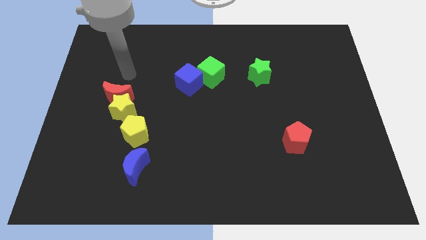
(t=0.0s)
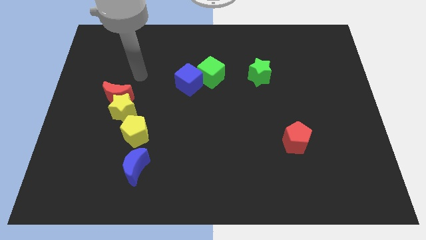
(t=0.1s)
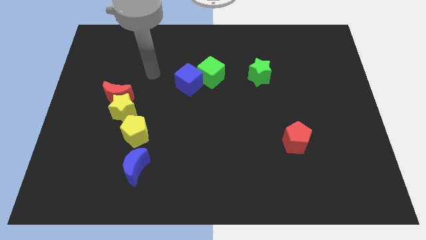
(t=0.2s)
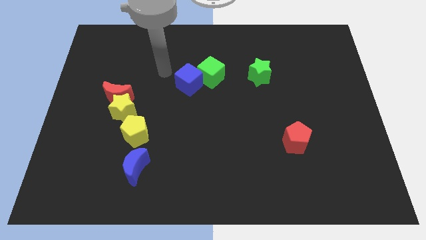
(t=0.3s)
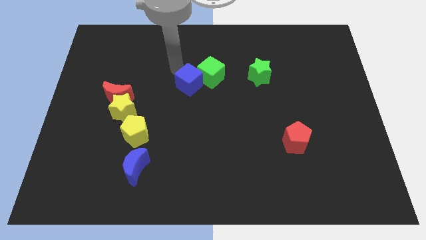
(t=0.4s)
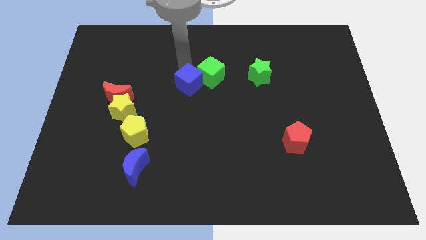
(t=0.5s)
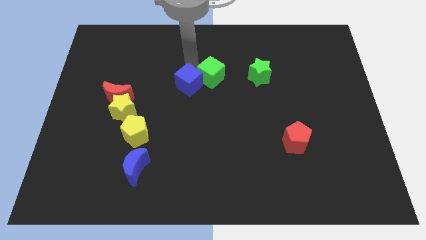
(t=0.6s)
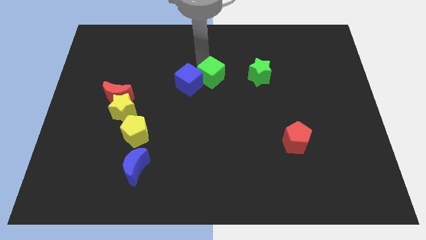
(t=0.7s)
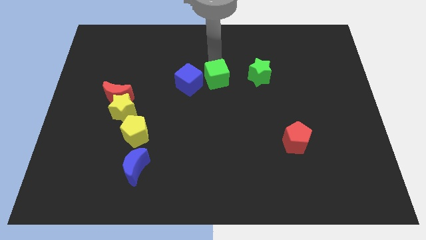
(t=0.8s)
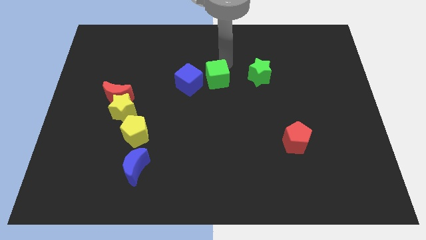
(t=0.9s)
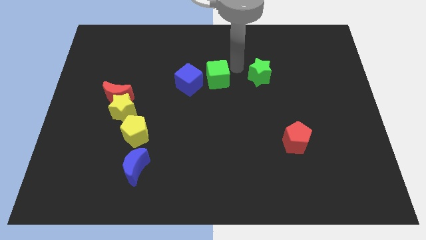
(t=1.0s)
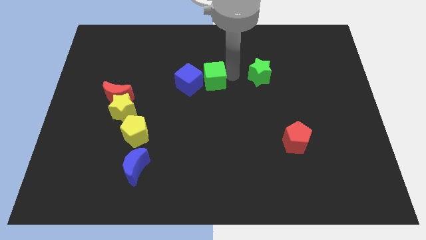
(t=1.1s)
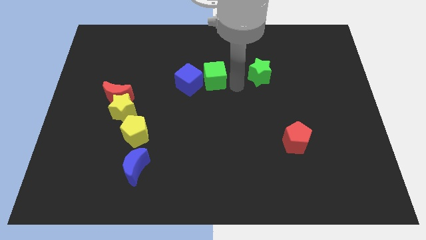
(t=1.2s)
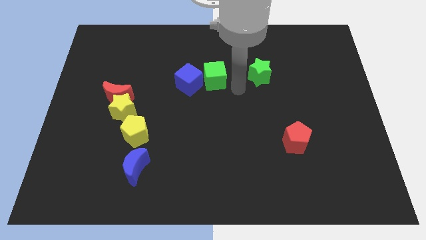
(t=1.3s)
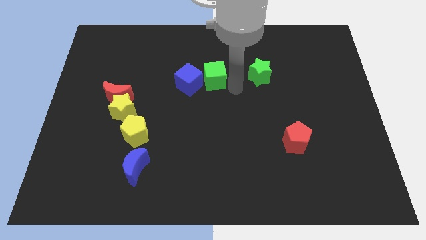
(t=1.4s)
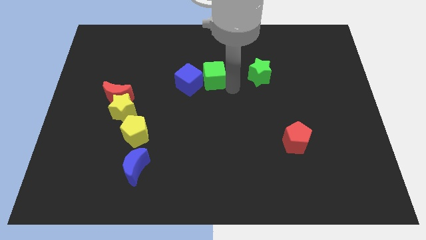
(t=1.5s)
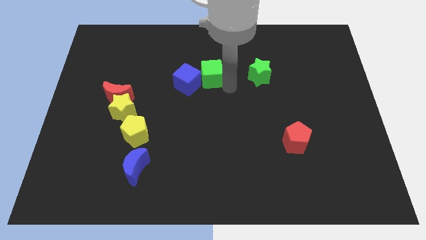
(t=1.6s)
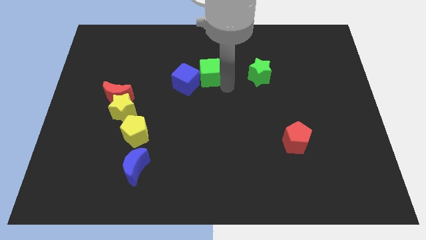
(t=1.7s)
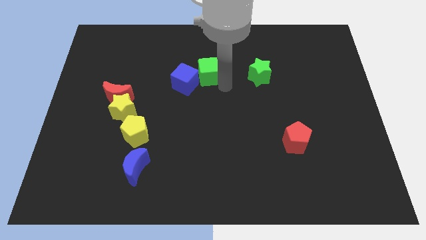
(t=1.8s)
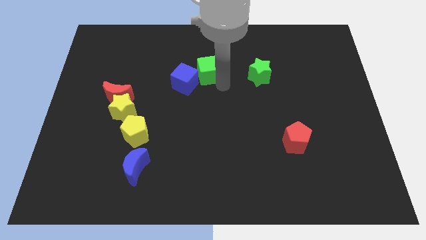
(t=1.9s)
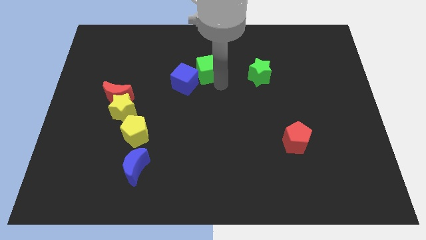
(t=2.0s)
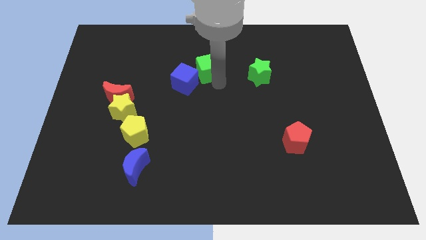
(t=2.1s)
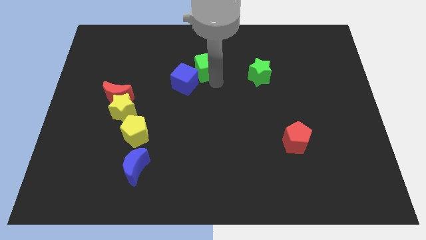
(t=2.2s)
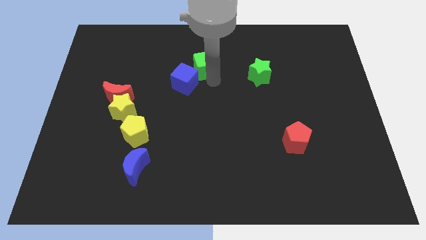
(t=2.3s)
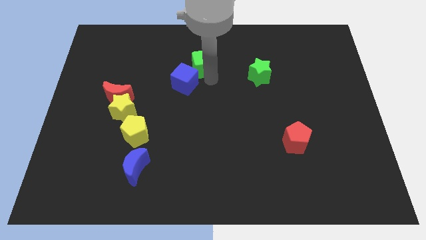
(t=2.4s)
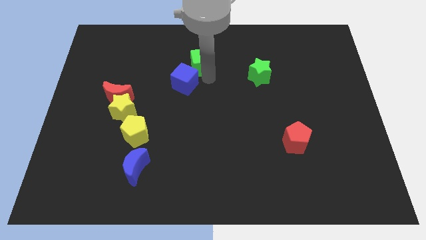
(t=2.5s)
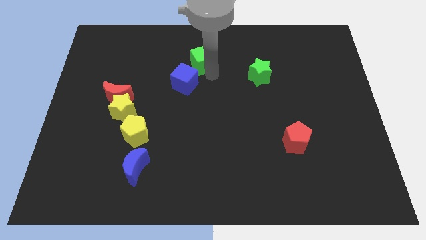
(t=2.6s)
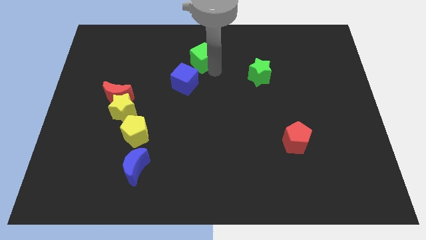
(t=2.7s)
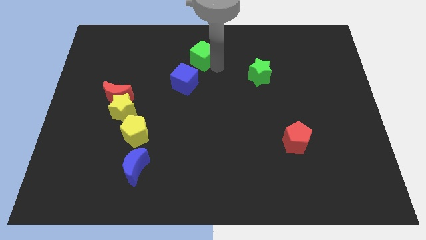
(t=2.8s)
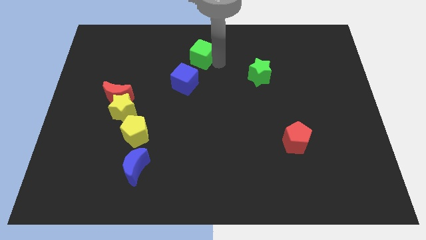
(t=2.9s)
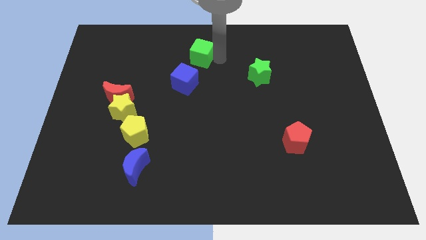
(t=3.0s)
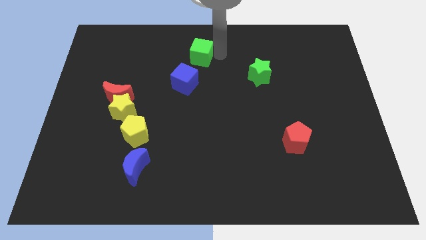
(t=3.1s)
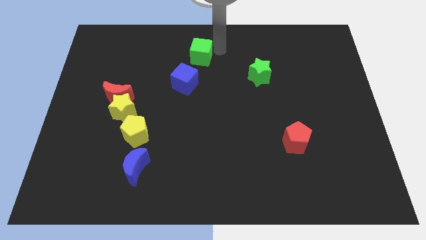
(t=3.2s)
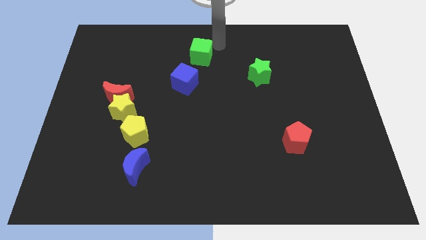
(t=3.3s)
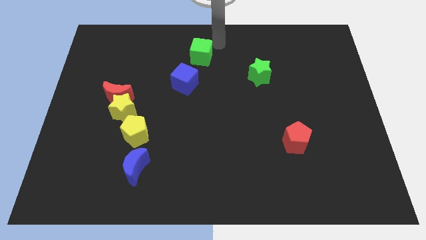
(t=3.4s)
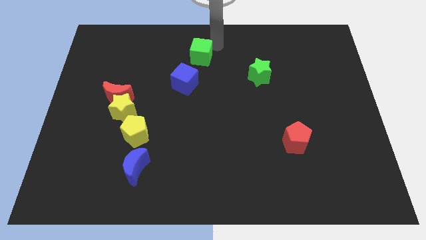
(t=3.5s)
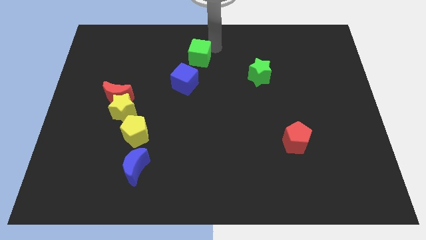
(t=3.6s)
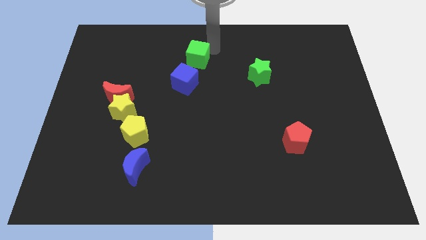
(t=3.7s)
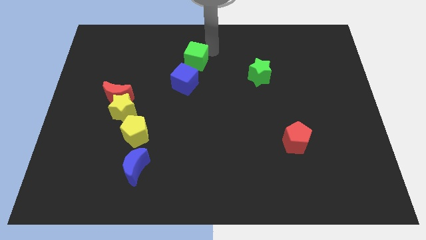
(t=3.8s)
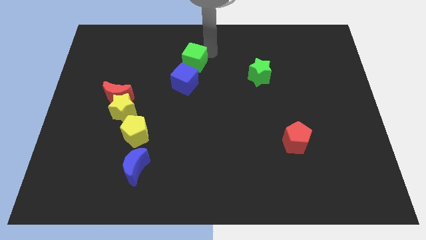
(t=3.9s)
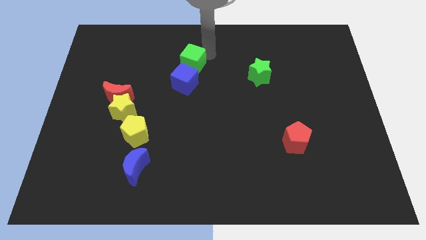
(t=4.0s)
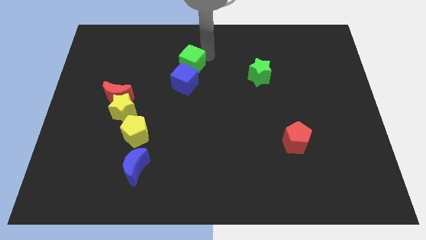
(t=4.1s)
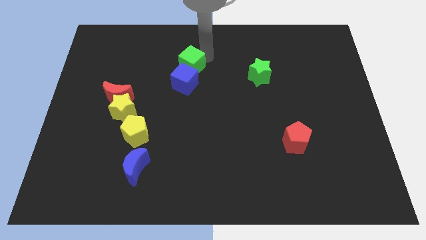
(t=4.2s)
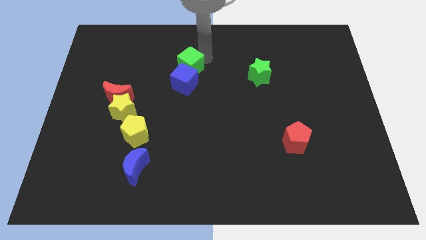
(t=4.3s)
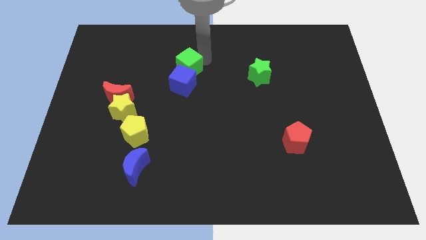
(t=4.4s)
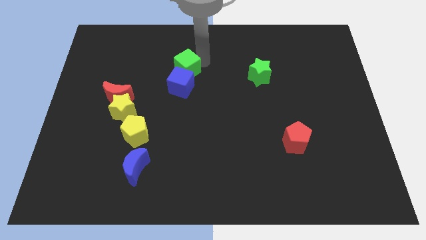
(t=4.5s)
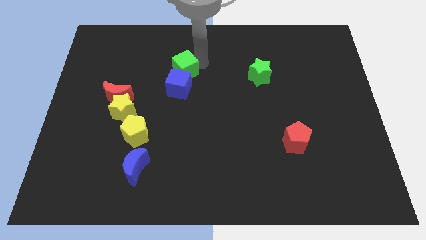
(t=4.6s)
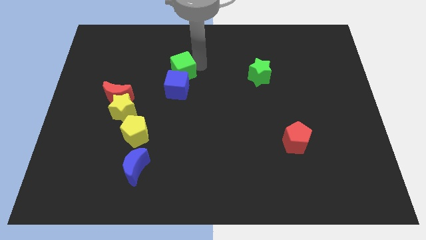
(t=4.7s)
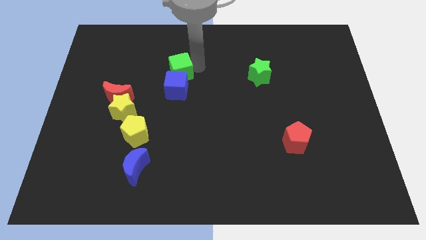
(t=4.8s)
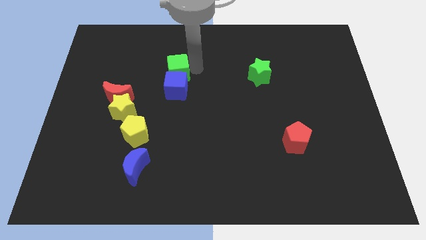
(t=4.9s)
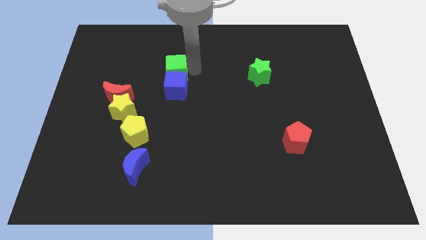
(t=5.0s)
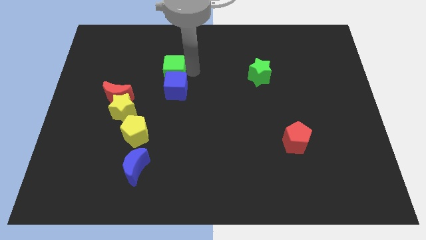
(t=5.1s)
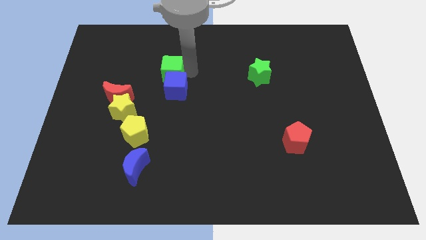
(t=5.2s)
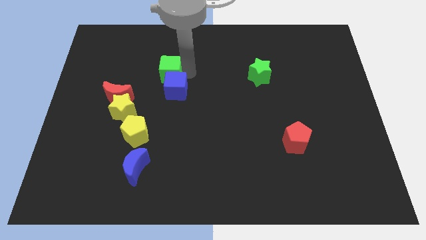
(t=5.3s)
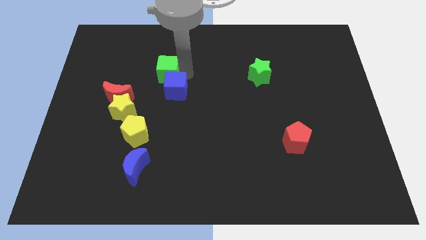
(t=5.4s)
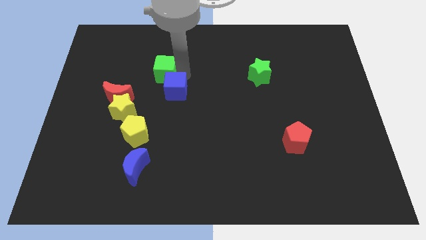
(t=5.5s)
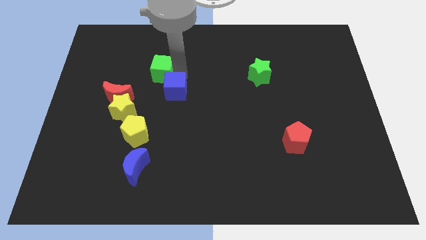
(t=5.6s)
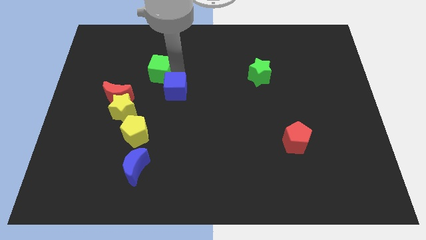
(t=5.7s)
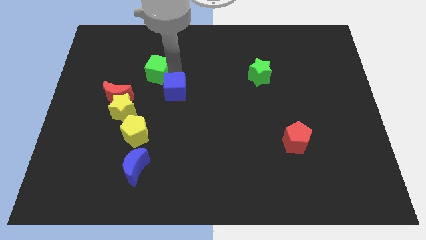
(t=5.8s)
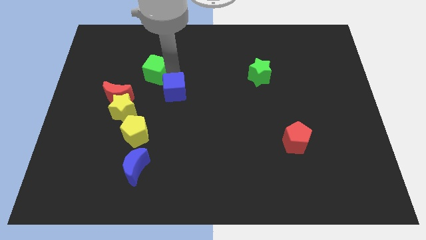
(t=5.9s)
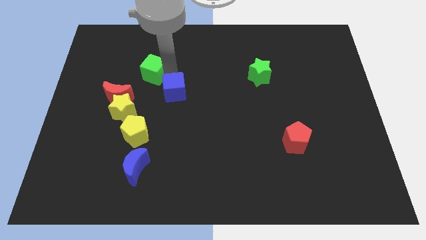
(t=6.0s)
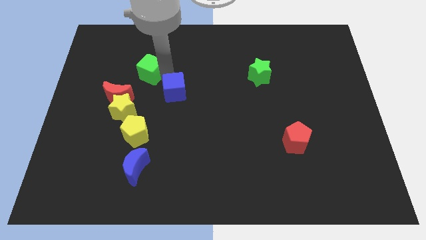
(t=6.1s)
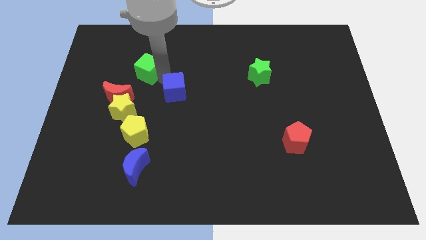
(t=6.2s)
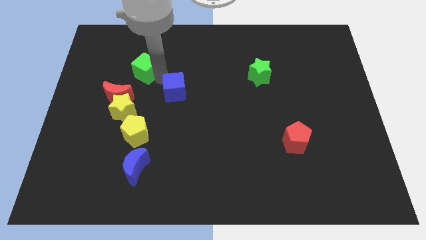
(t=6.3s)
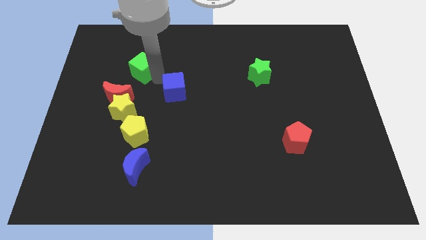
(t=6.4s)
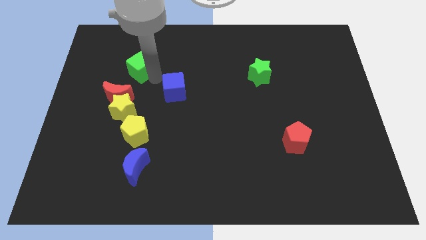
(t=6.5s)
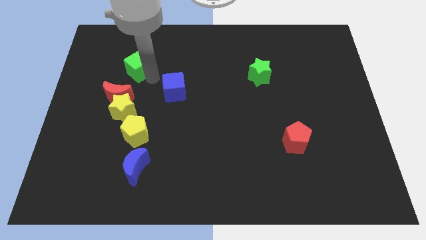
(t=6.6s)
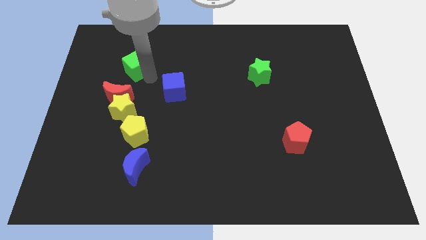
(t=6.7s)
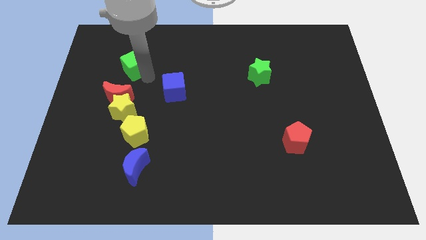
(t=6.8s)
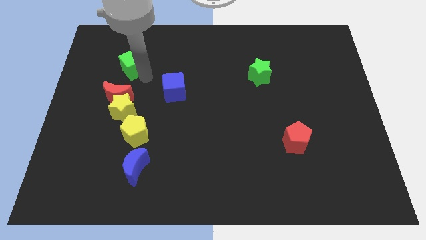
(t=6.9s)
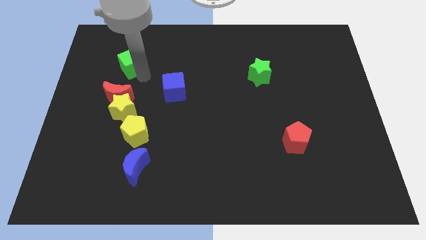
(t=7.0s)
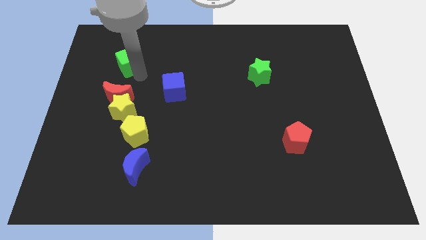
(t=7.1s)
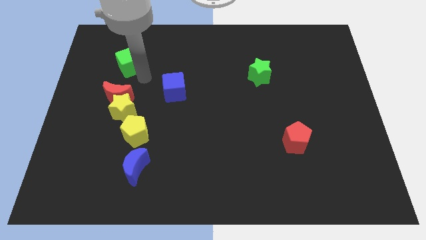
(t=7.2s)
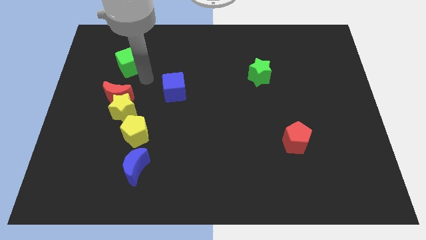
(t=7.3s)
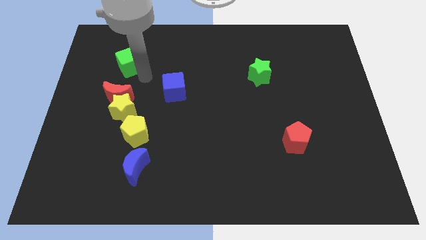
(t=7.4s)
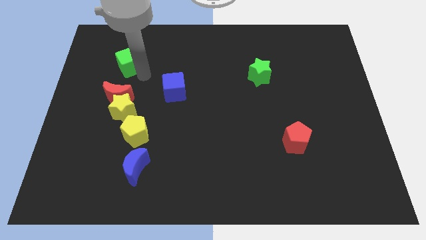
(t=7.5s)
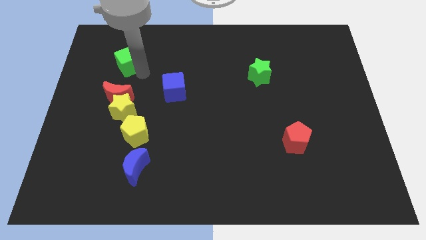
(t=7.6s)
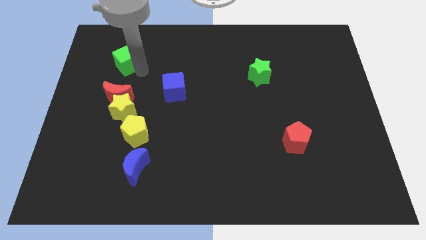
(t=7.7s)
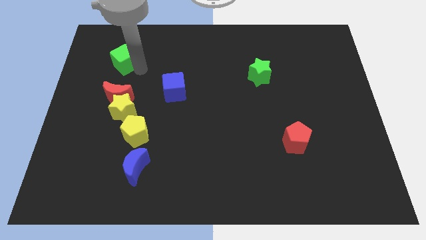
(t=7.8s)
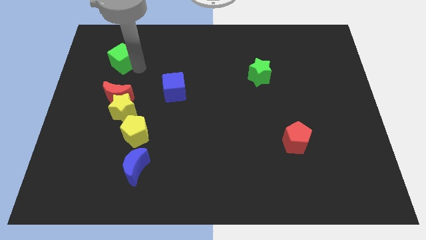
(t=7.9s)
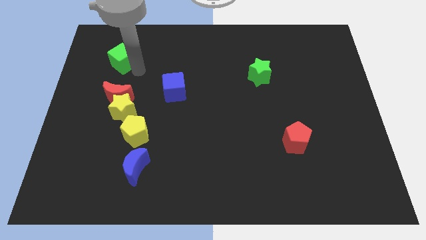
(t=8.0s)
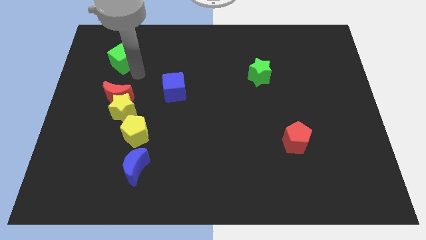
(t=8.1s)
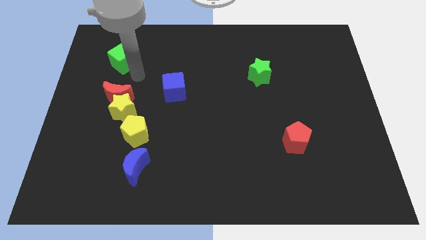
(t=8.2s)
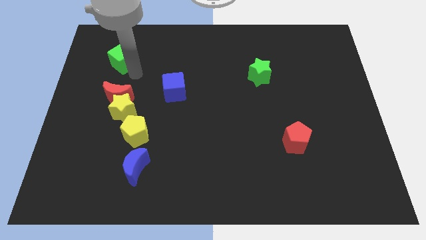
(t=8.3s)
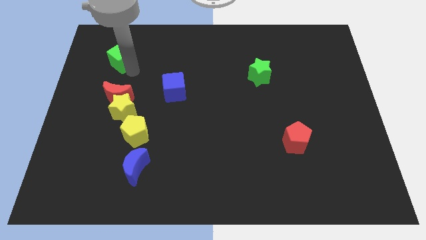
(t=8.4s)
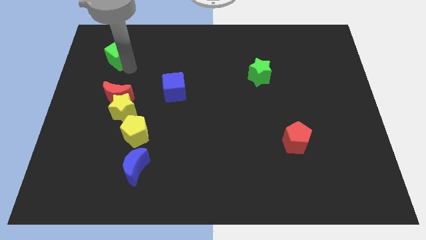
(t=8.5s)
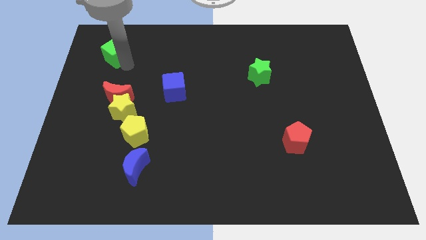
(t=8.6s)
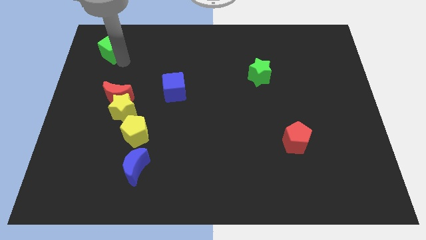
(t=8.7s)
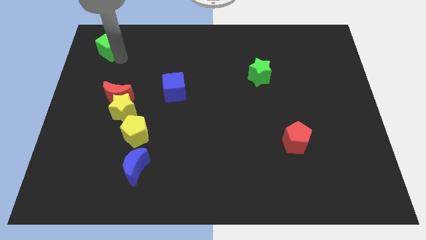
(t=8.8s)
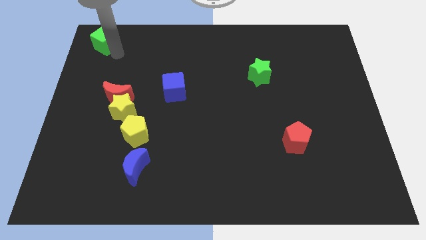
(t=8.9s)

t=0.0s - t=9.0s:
push the green cube to the upper left corner
